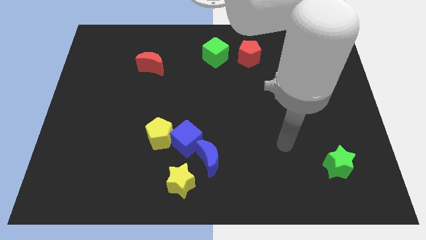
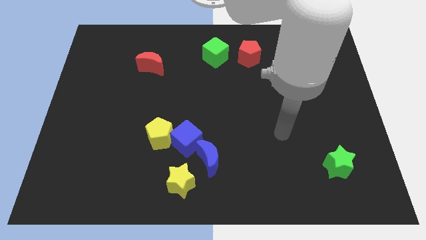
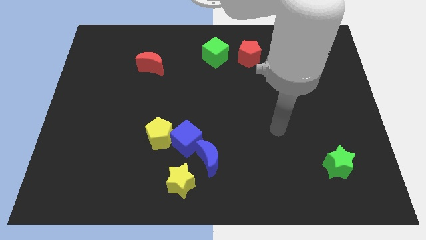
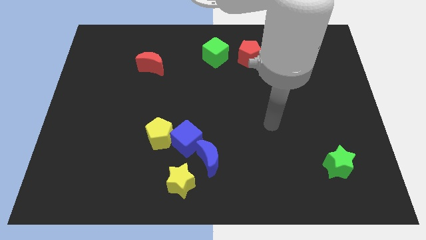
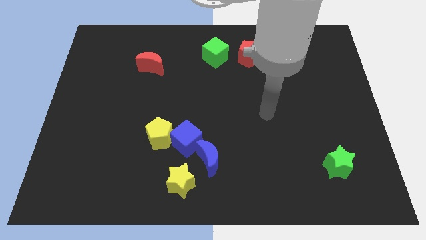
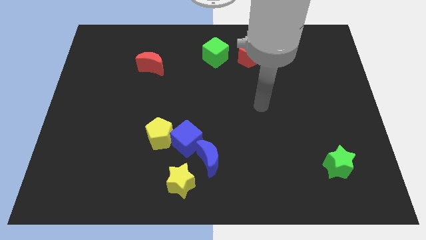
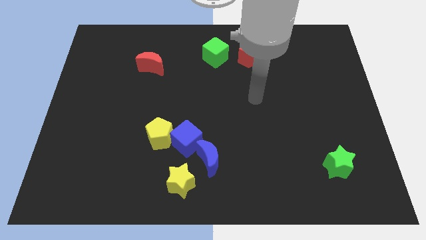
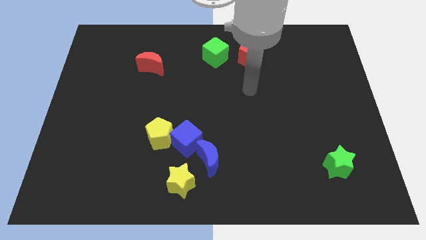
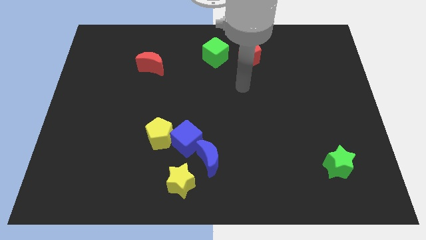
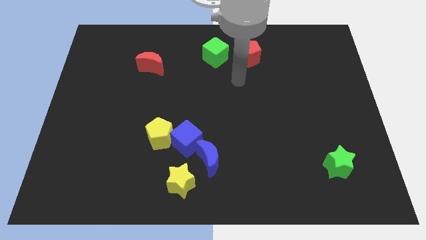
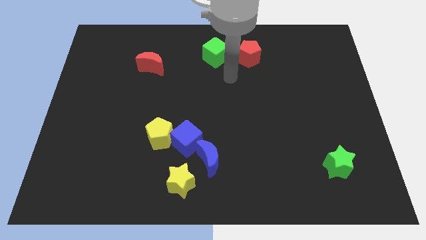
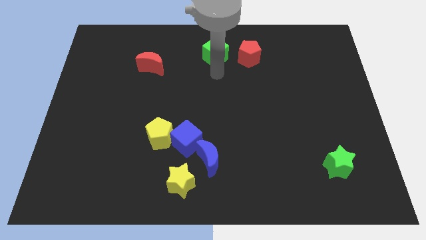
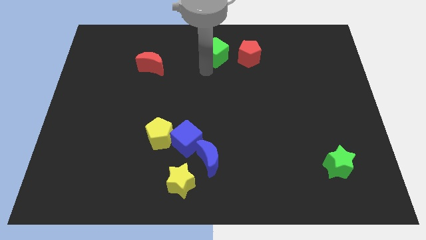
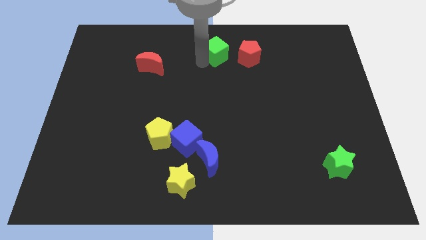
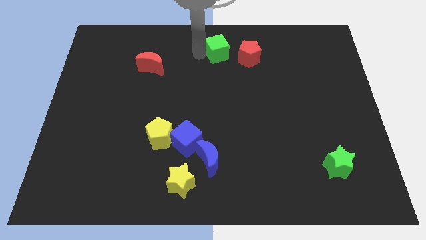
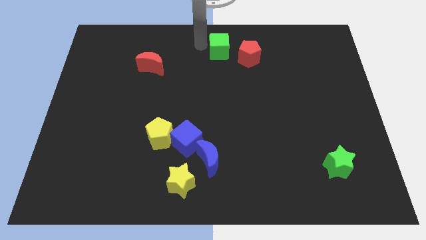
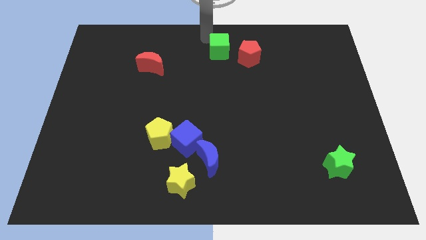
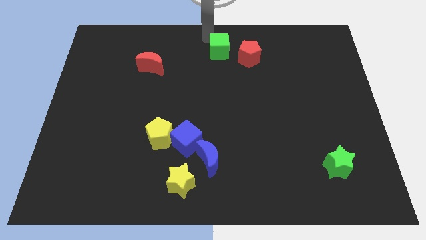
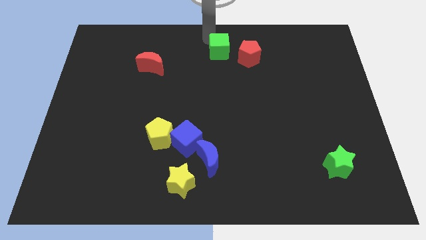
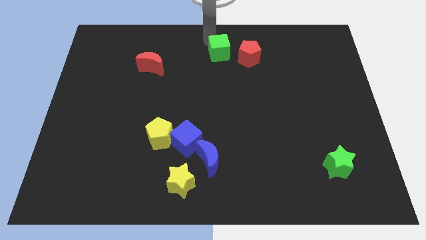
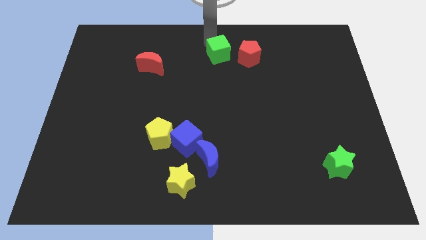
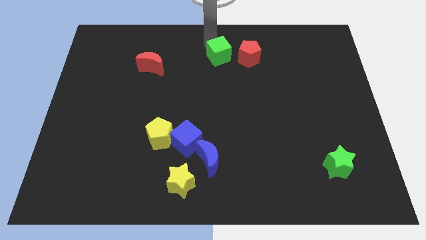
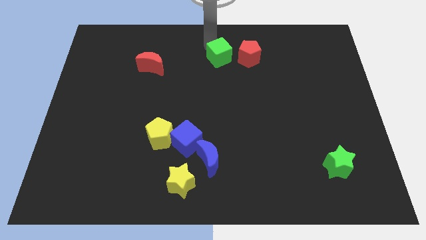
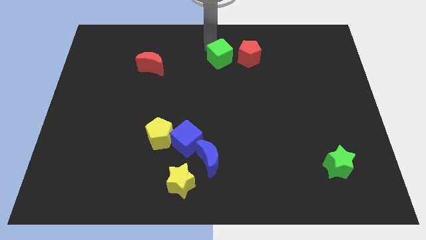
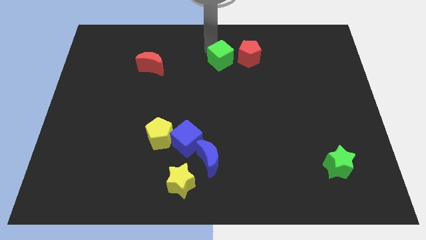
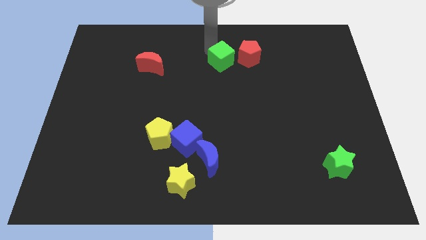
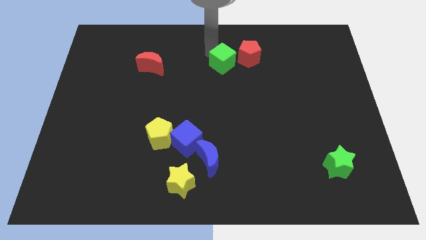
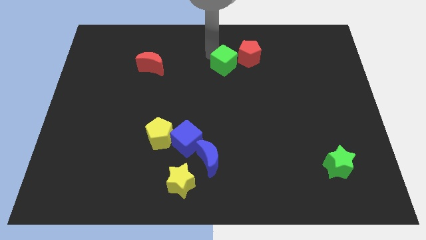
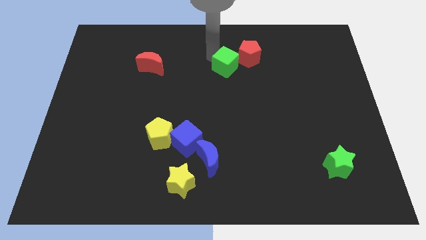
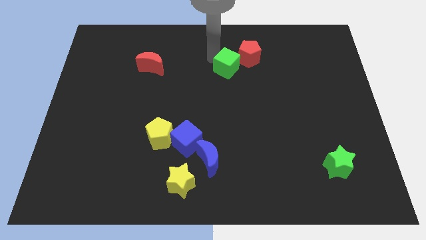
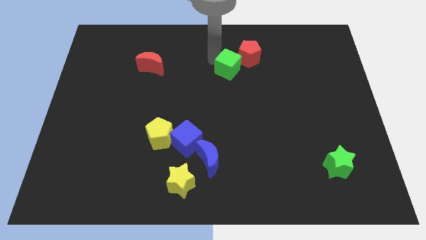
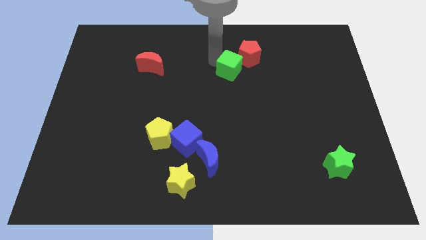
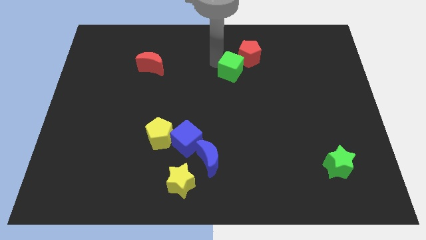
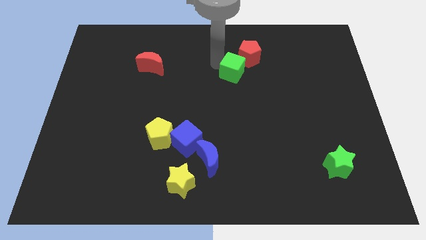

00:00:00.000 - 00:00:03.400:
slightly move the green cube down and then right

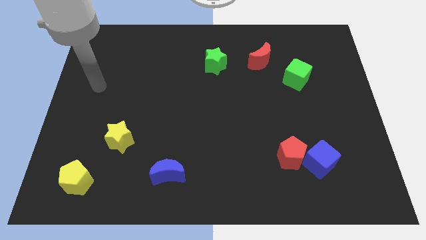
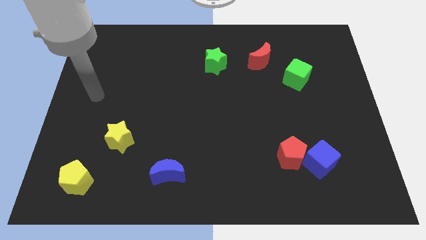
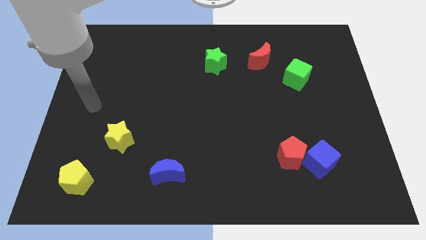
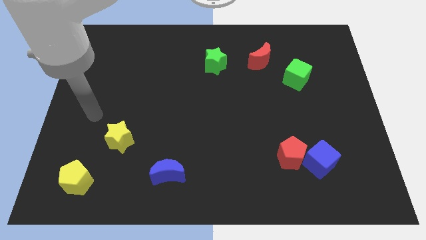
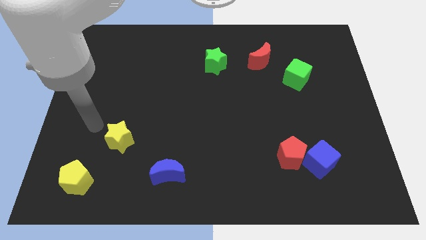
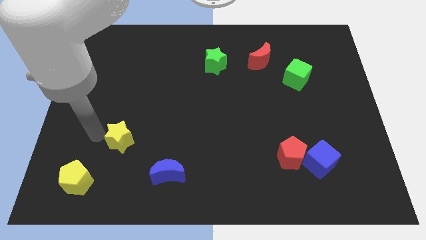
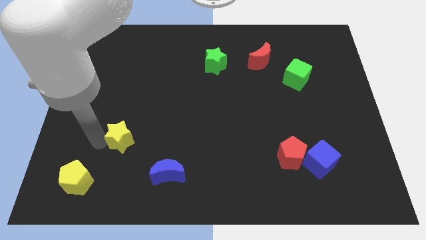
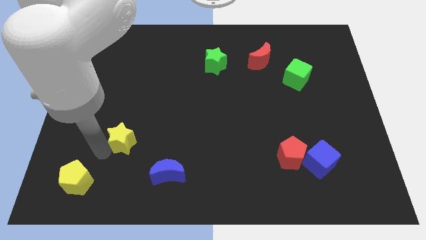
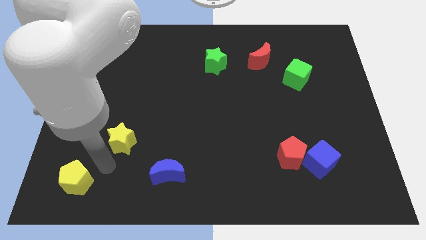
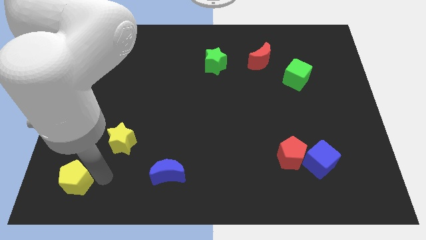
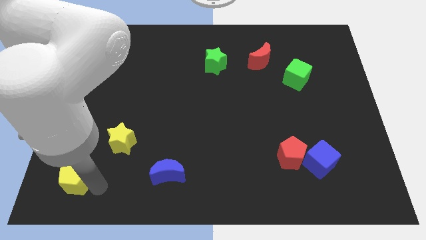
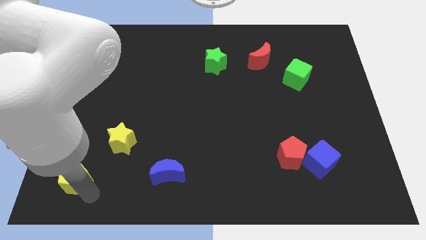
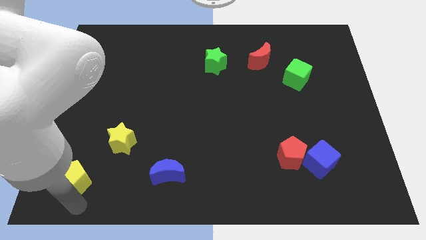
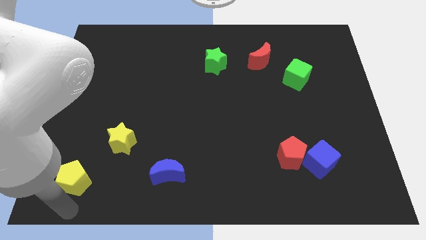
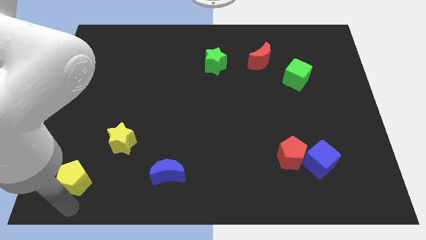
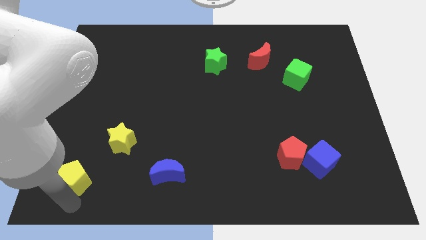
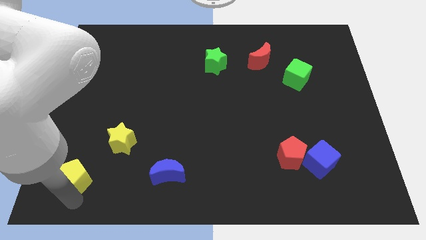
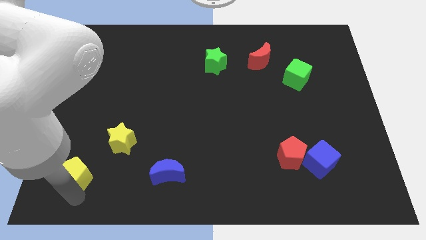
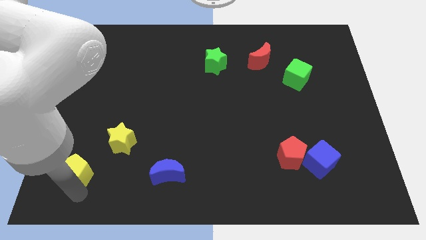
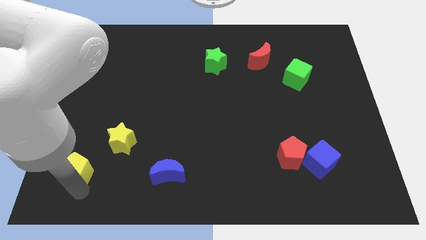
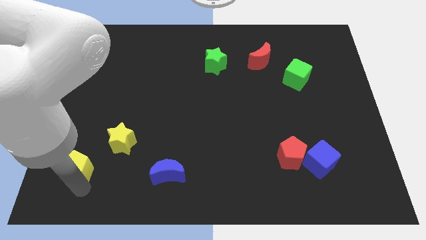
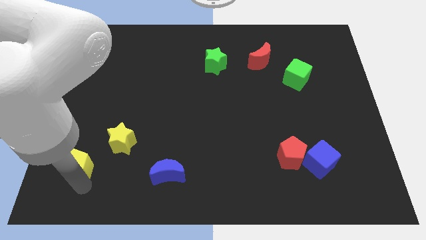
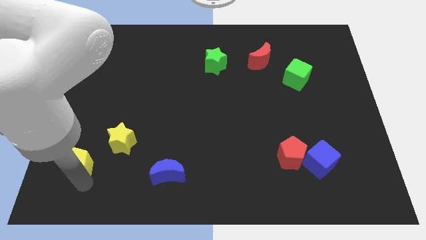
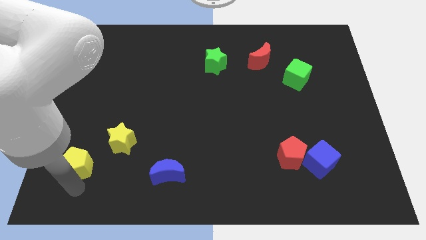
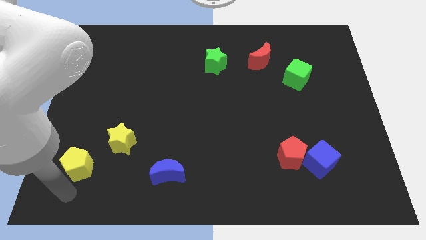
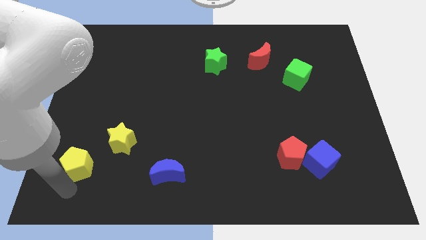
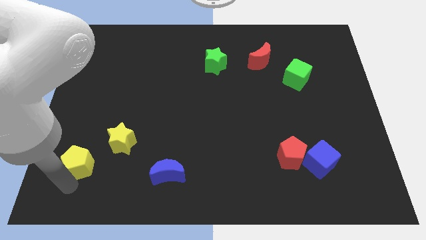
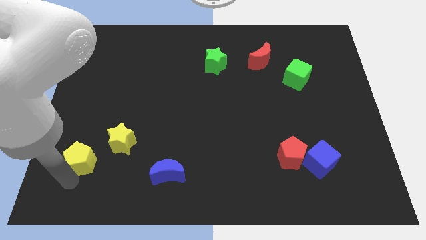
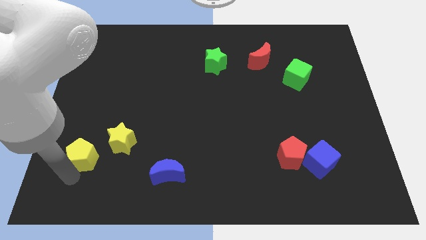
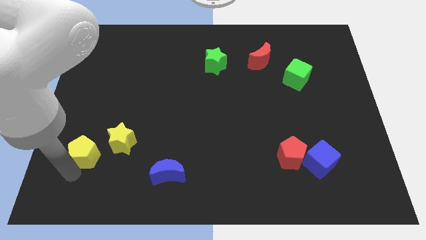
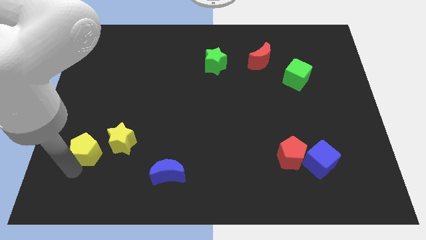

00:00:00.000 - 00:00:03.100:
slightly move the yellow pentagon upwards

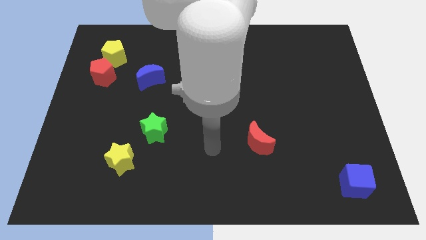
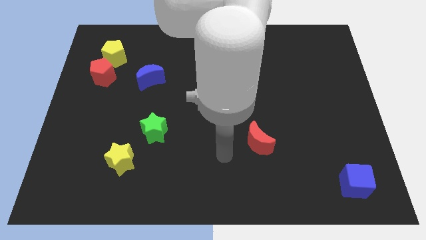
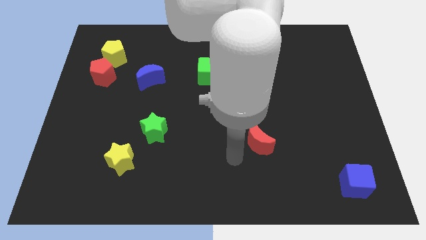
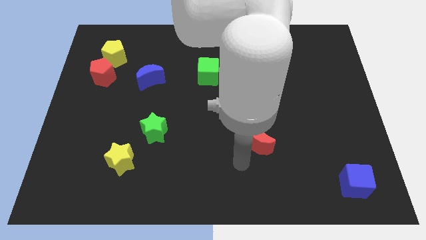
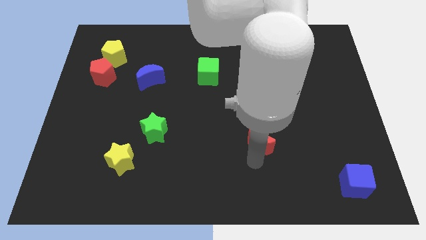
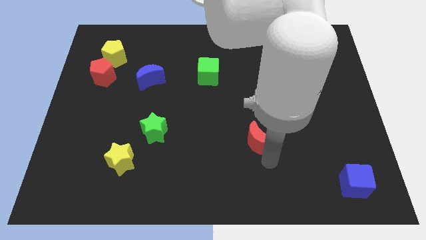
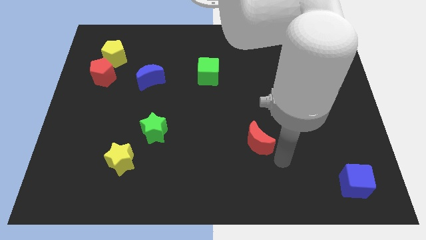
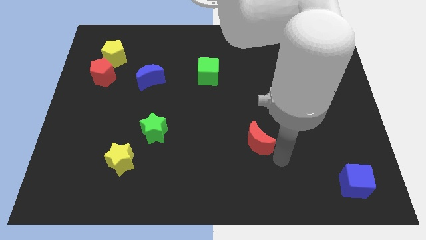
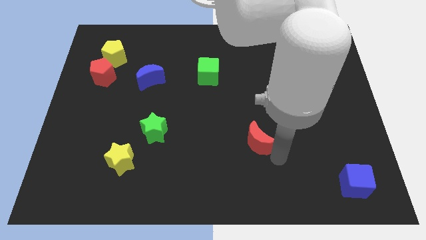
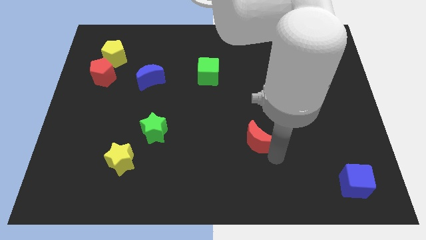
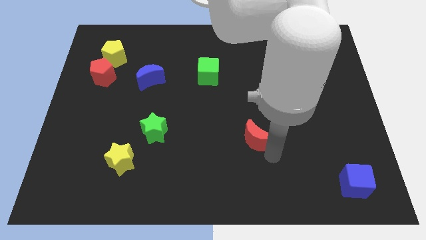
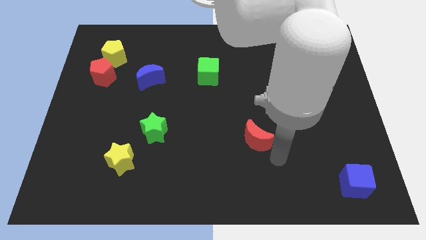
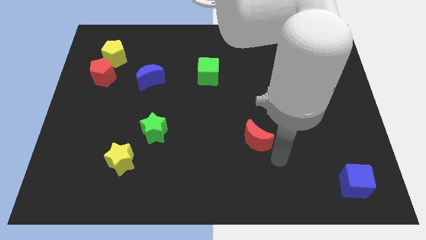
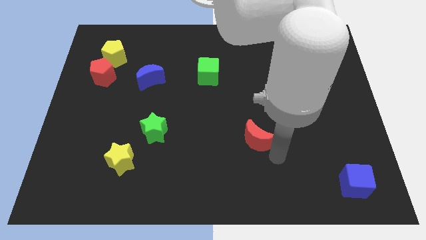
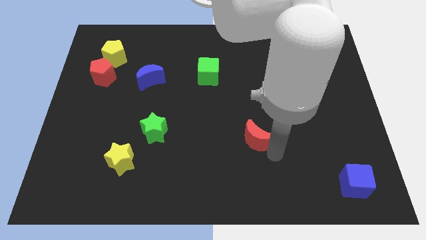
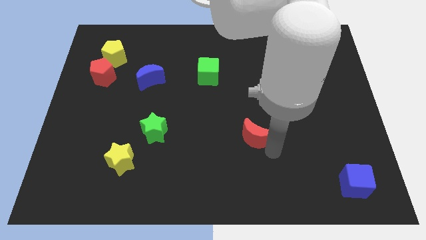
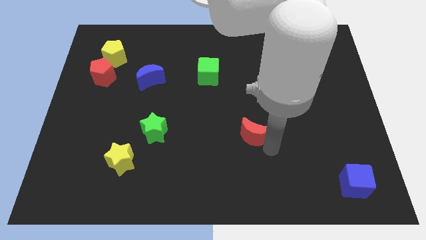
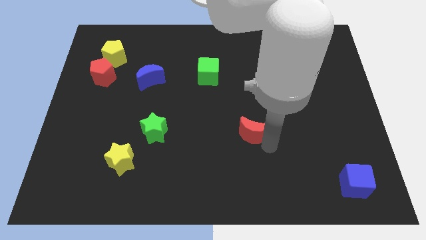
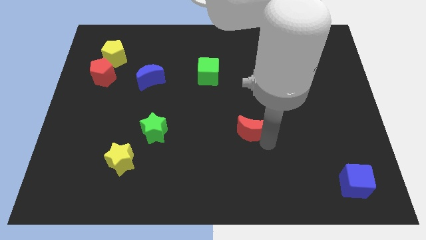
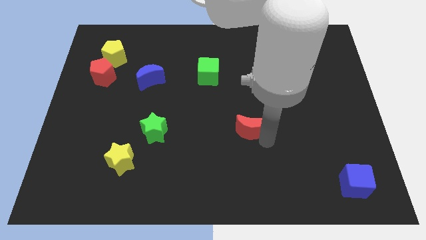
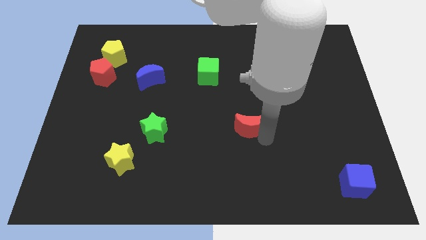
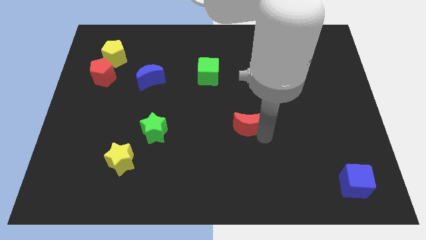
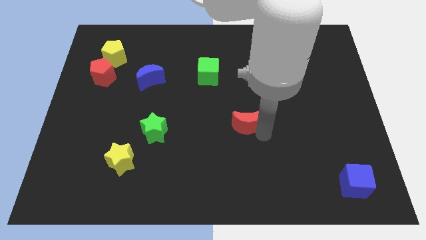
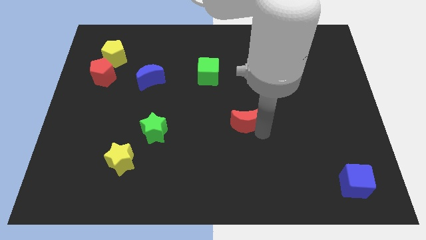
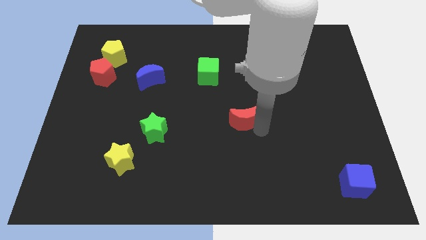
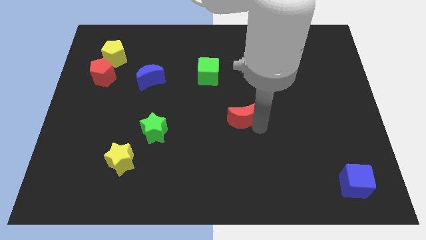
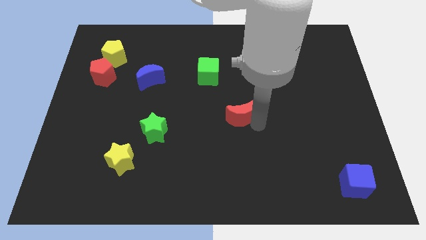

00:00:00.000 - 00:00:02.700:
push the red moon up and then to the left slightly
